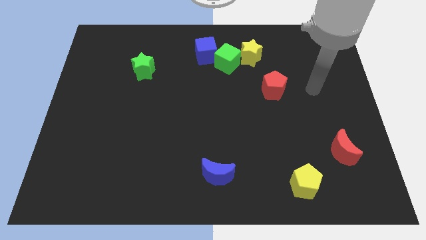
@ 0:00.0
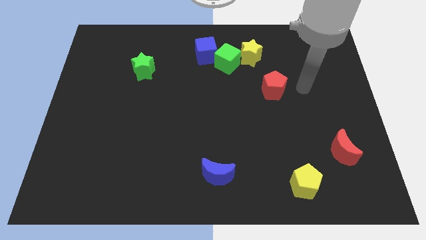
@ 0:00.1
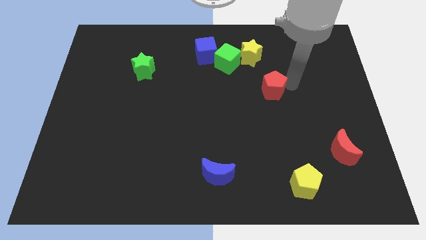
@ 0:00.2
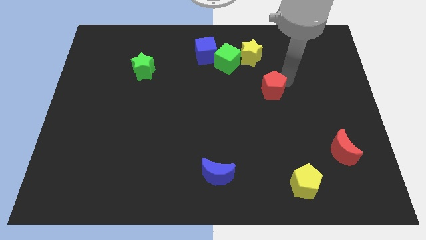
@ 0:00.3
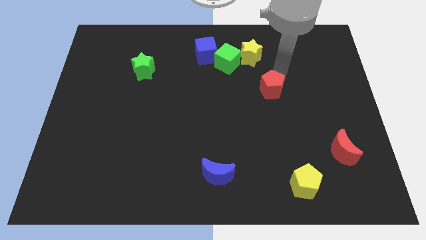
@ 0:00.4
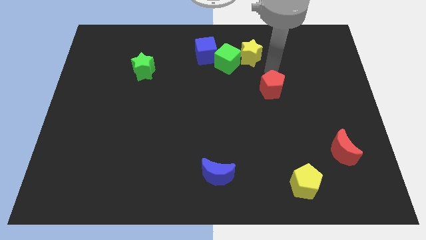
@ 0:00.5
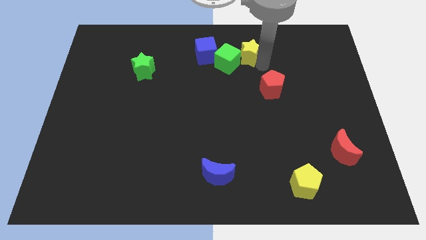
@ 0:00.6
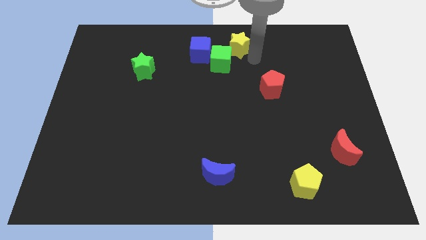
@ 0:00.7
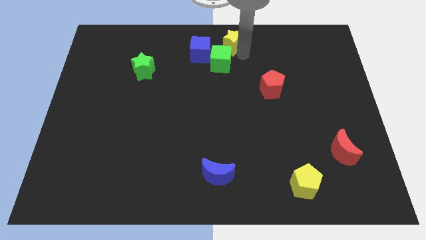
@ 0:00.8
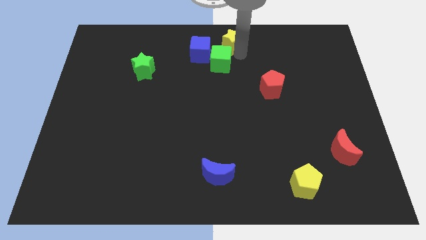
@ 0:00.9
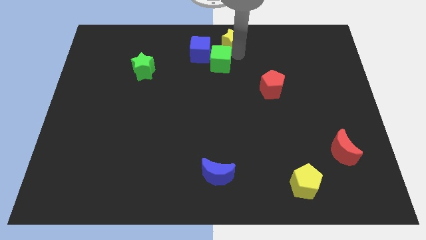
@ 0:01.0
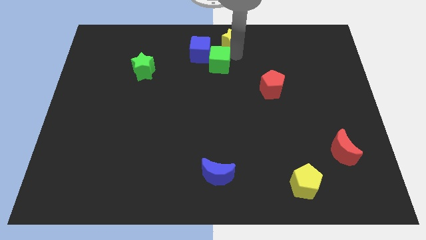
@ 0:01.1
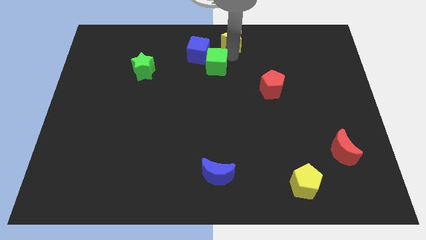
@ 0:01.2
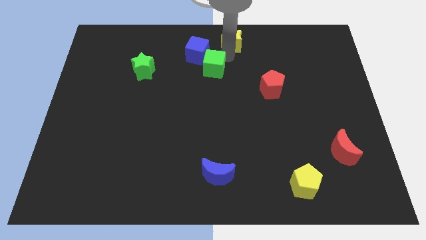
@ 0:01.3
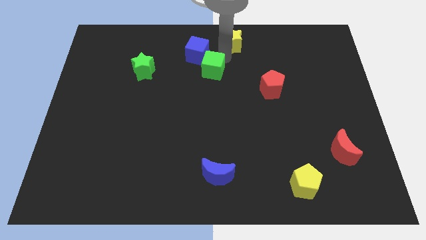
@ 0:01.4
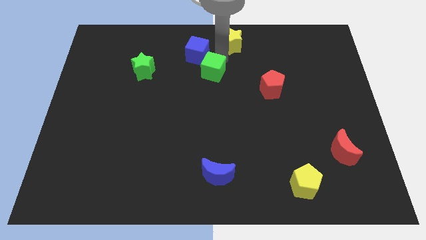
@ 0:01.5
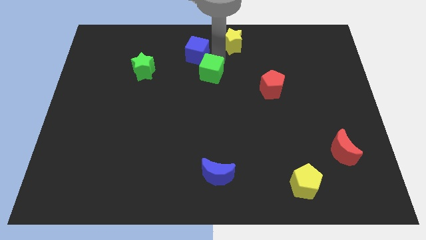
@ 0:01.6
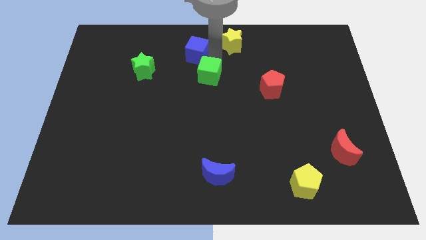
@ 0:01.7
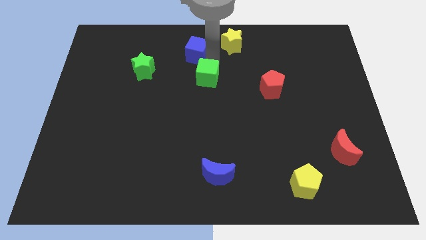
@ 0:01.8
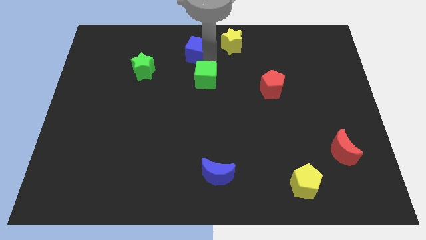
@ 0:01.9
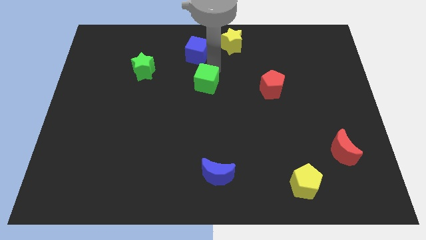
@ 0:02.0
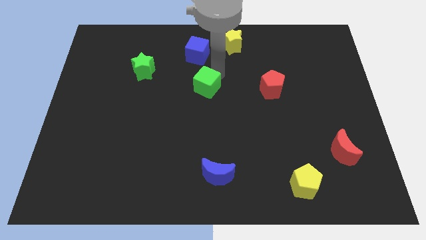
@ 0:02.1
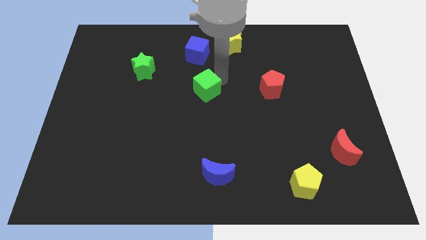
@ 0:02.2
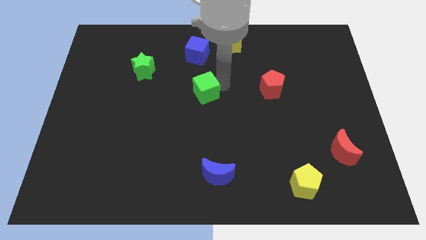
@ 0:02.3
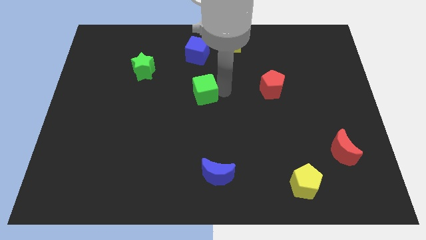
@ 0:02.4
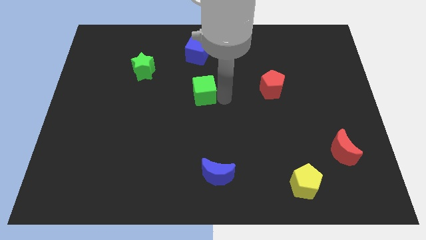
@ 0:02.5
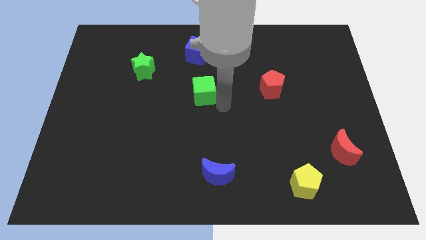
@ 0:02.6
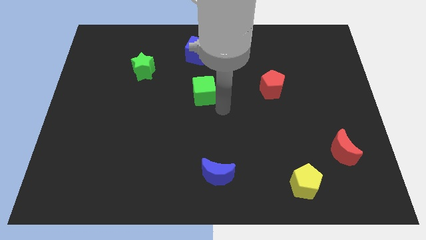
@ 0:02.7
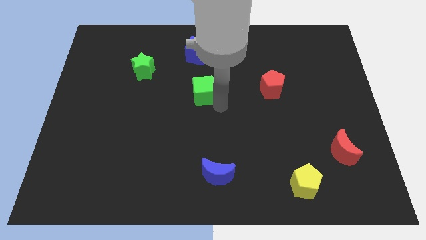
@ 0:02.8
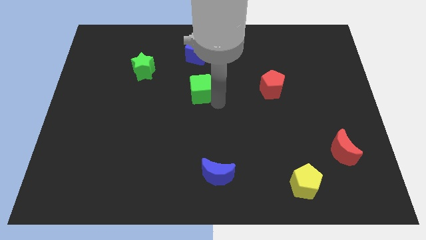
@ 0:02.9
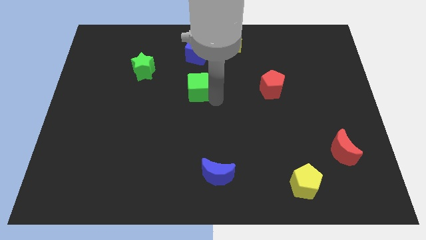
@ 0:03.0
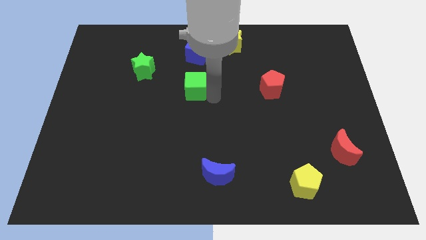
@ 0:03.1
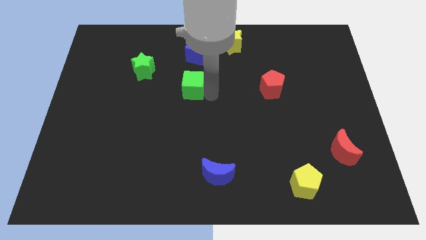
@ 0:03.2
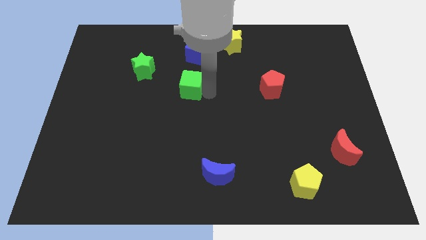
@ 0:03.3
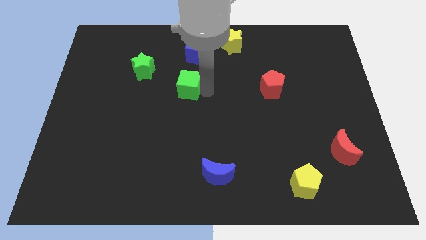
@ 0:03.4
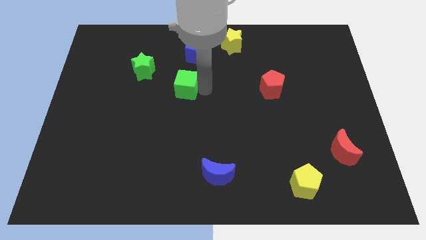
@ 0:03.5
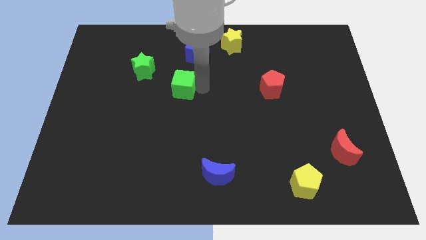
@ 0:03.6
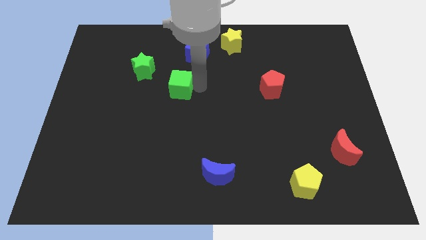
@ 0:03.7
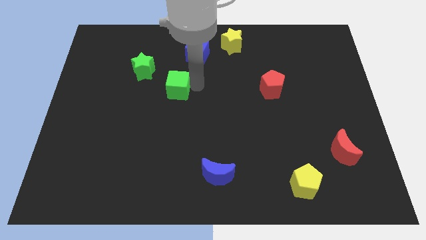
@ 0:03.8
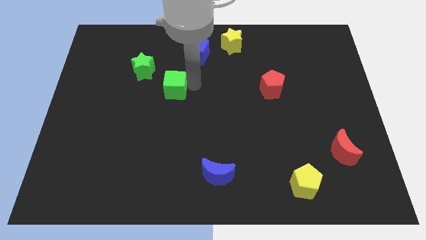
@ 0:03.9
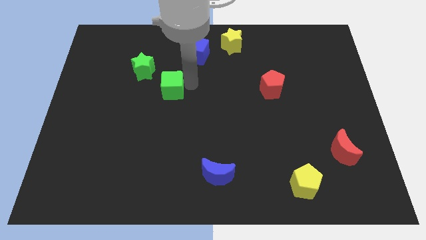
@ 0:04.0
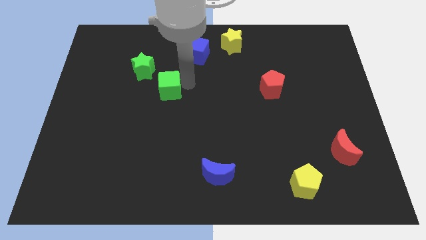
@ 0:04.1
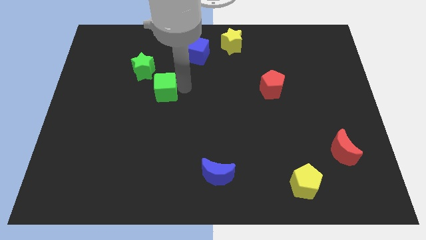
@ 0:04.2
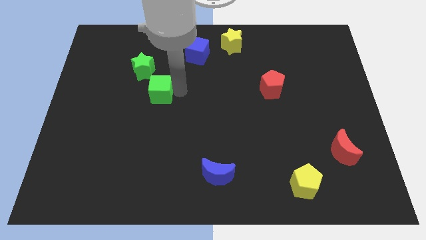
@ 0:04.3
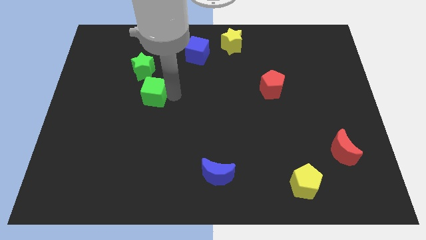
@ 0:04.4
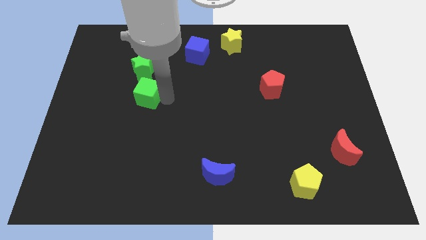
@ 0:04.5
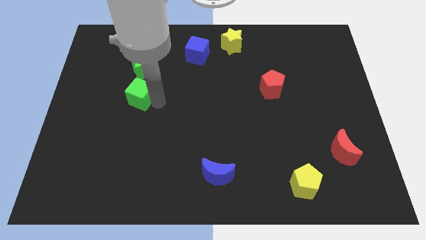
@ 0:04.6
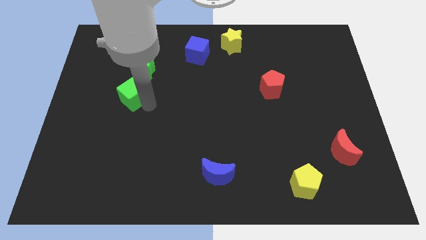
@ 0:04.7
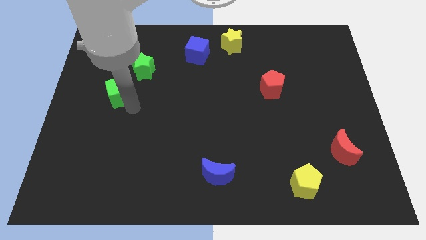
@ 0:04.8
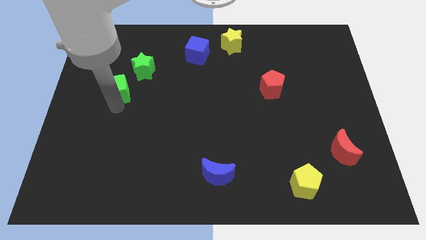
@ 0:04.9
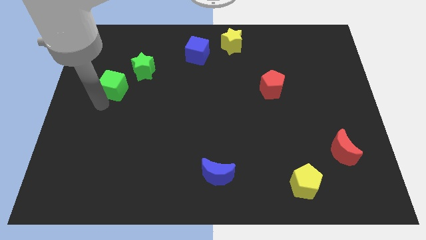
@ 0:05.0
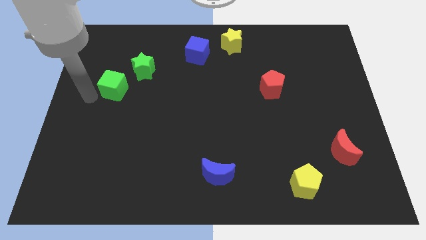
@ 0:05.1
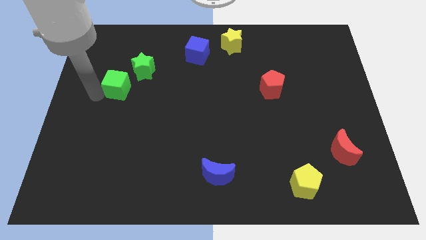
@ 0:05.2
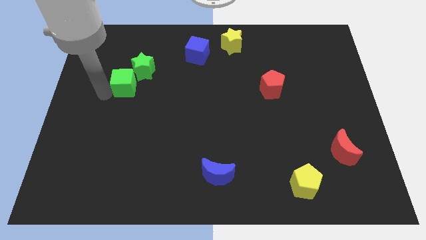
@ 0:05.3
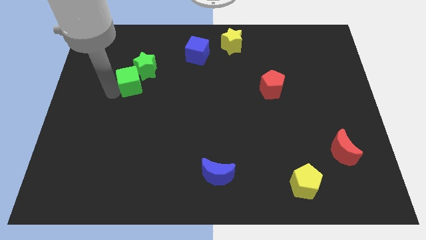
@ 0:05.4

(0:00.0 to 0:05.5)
put the green cube next to the green star

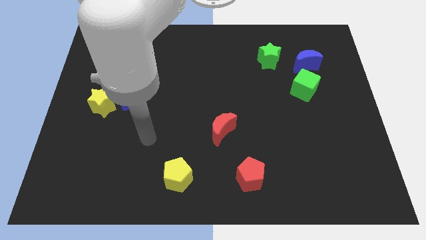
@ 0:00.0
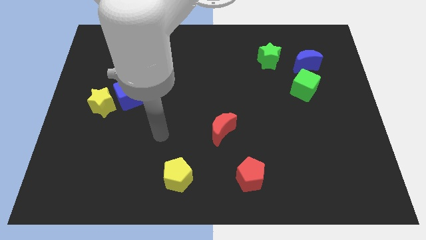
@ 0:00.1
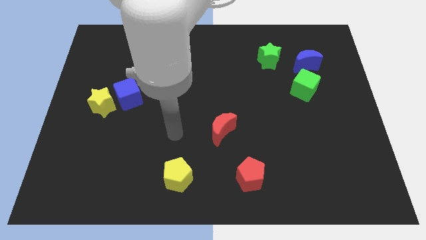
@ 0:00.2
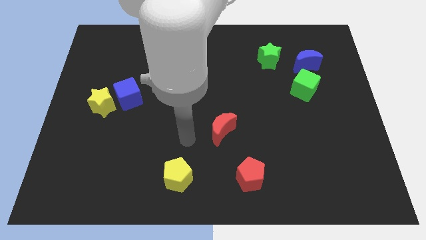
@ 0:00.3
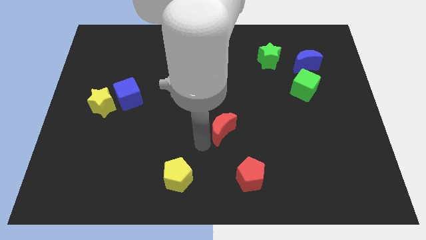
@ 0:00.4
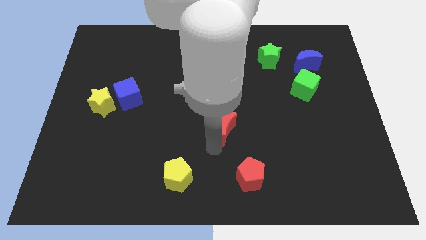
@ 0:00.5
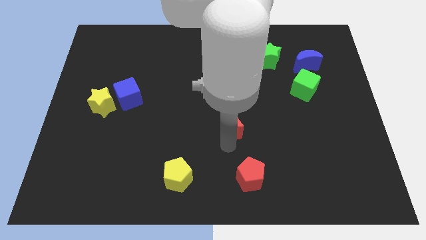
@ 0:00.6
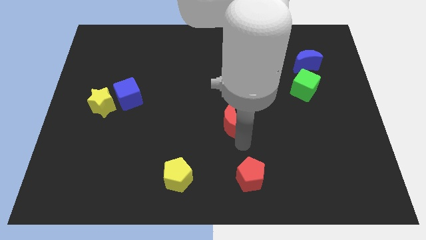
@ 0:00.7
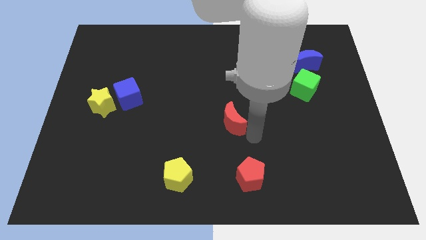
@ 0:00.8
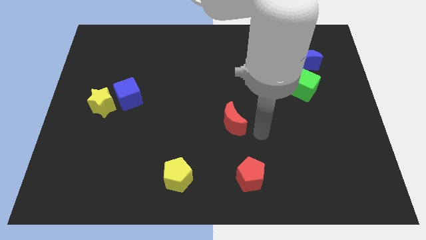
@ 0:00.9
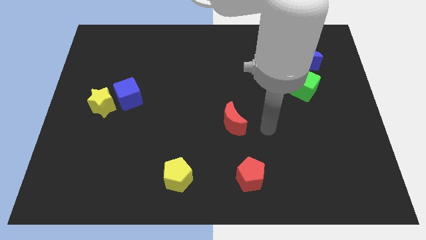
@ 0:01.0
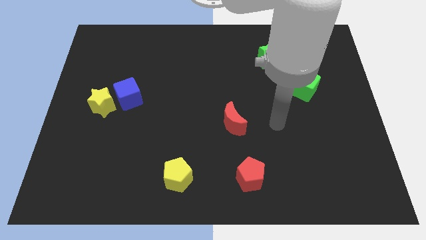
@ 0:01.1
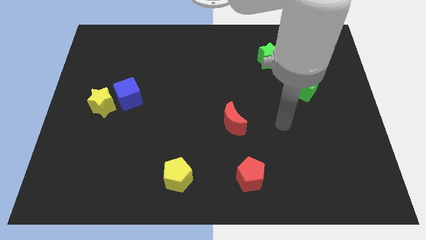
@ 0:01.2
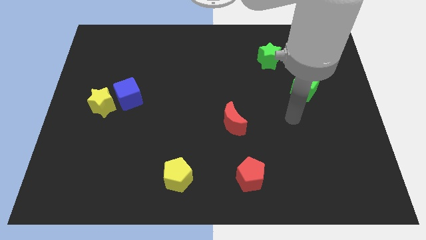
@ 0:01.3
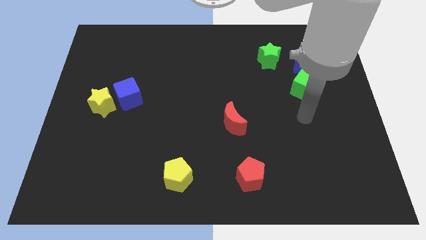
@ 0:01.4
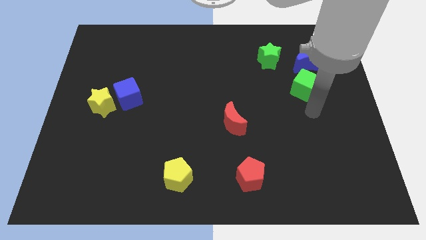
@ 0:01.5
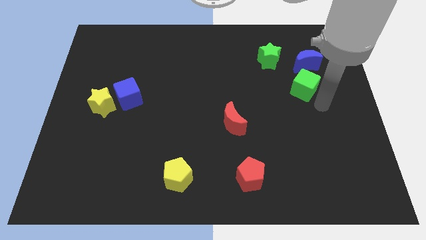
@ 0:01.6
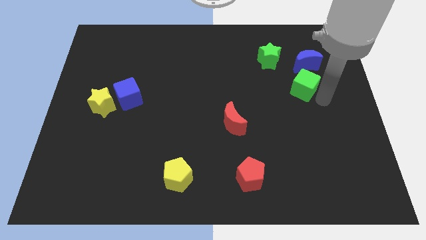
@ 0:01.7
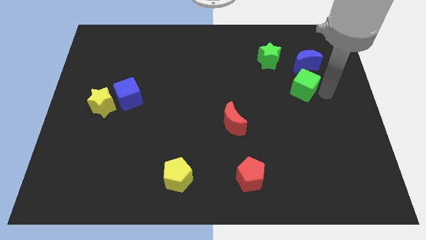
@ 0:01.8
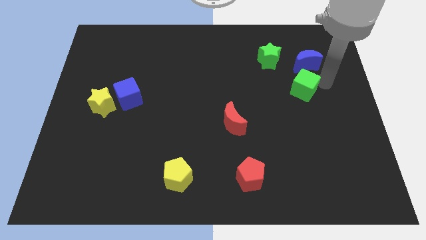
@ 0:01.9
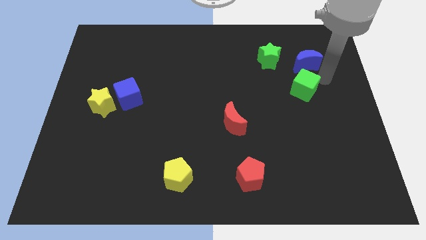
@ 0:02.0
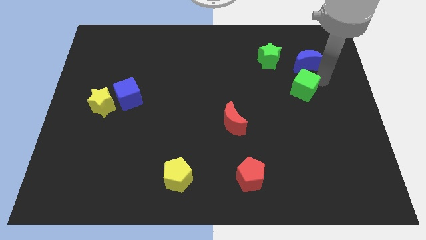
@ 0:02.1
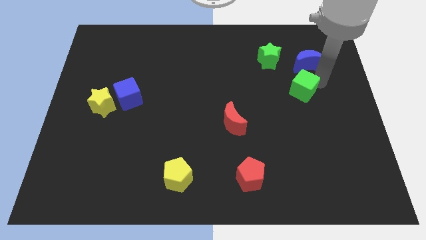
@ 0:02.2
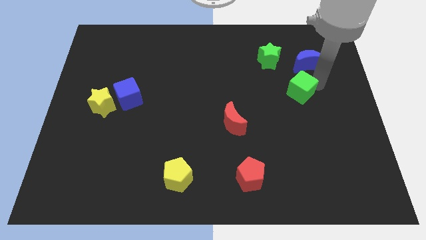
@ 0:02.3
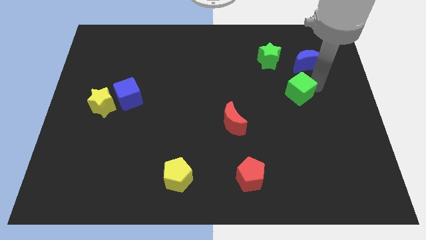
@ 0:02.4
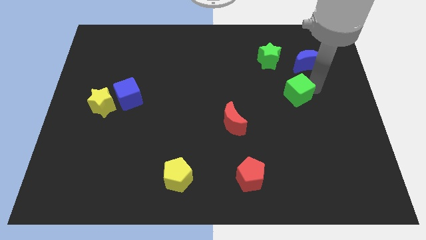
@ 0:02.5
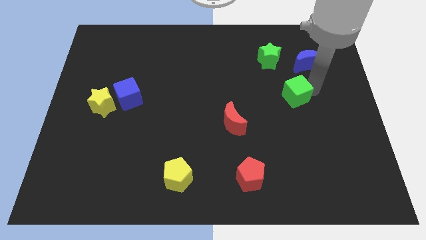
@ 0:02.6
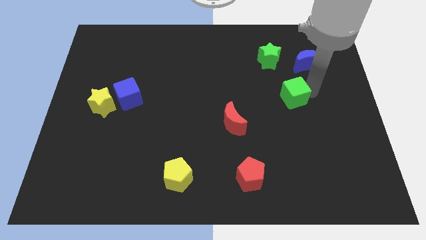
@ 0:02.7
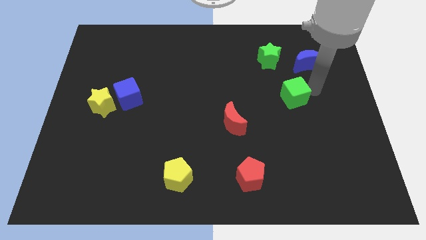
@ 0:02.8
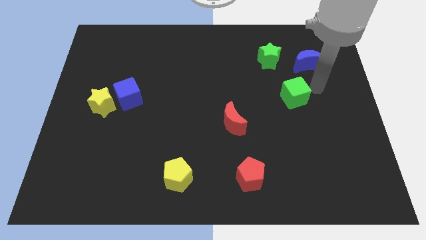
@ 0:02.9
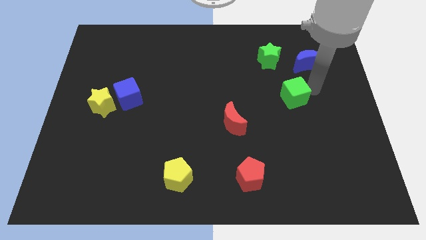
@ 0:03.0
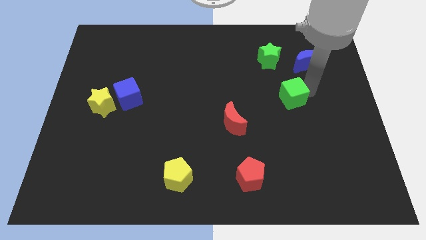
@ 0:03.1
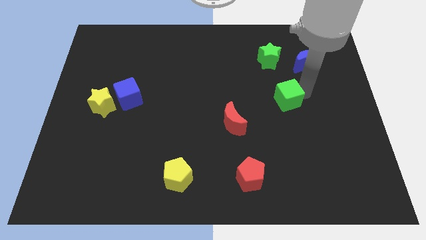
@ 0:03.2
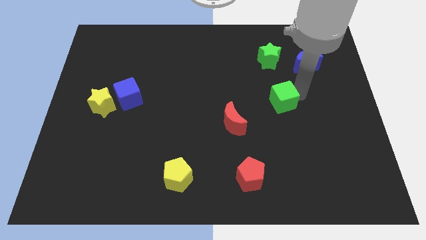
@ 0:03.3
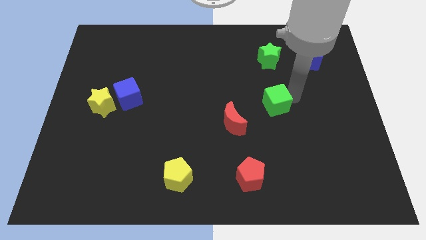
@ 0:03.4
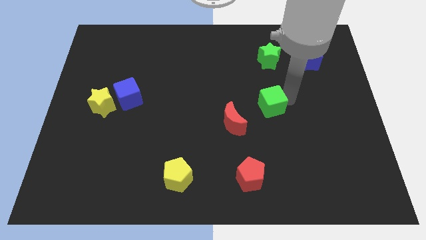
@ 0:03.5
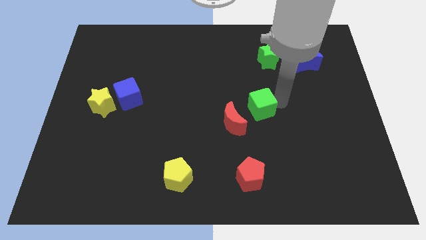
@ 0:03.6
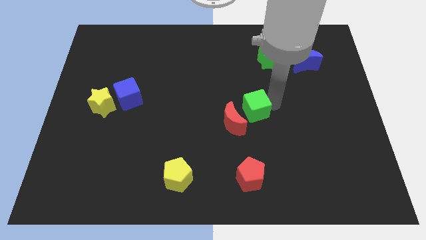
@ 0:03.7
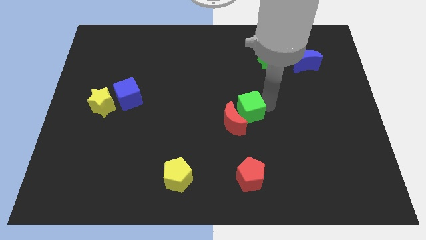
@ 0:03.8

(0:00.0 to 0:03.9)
put the green cube close to the red moon
